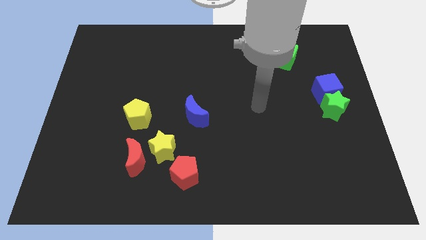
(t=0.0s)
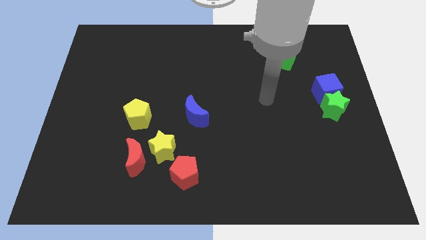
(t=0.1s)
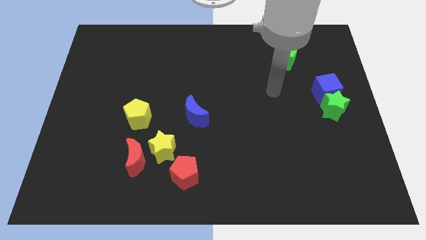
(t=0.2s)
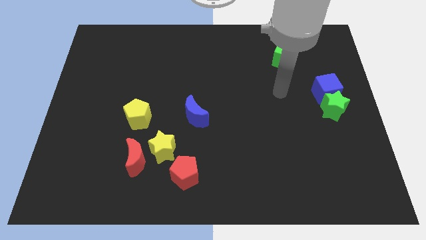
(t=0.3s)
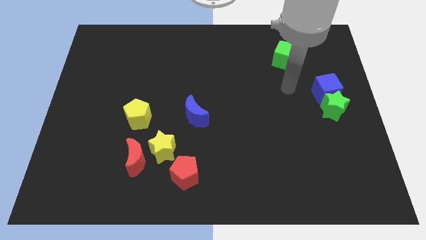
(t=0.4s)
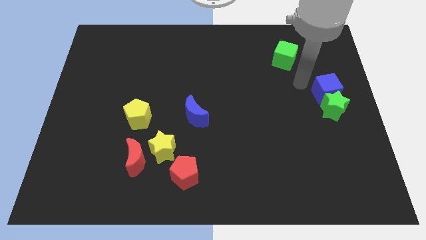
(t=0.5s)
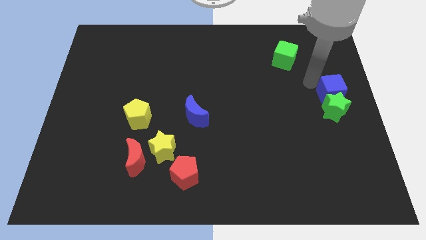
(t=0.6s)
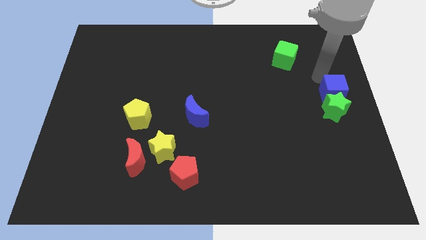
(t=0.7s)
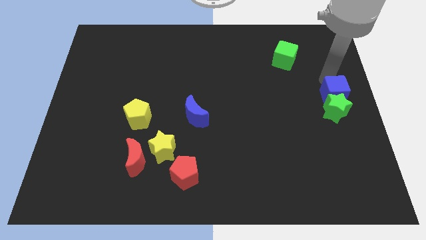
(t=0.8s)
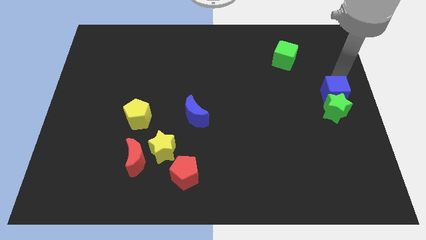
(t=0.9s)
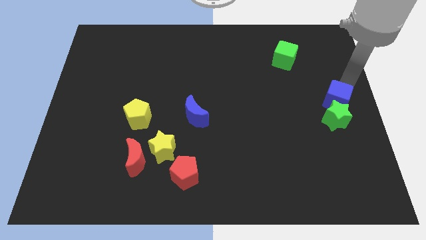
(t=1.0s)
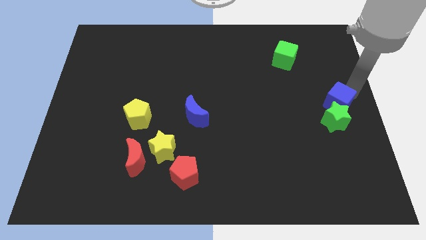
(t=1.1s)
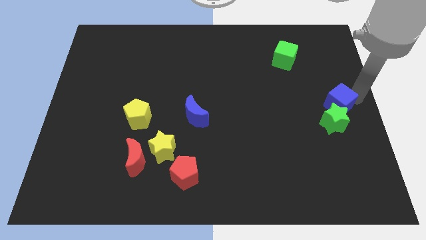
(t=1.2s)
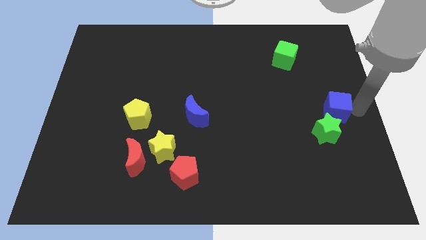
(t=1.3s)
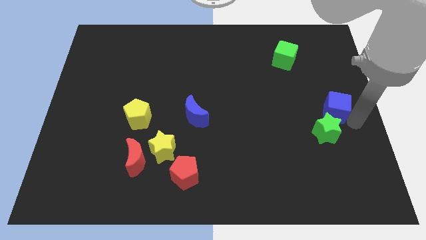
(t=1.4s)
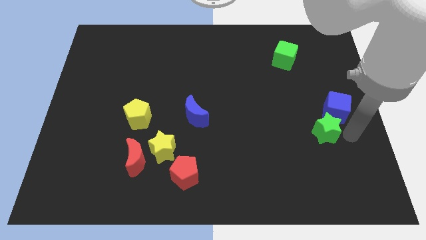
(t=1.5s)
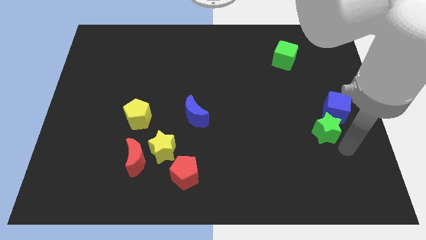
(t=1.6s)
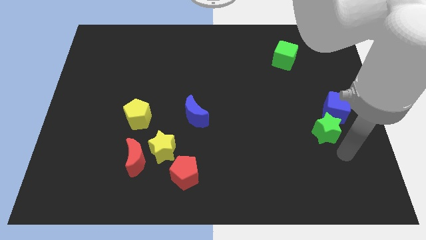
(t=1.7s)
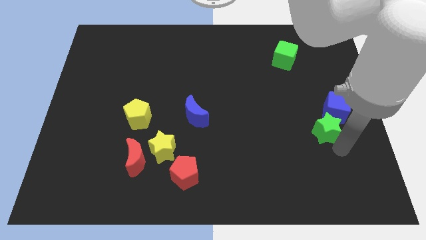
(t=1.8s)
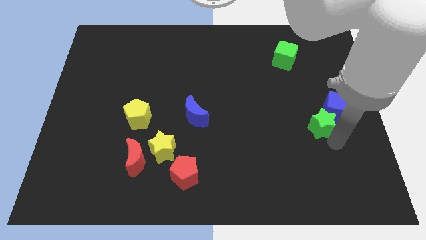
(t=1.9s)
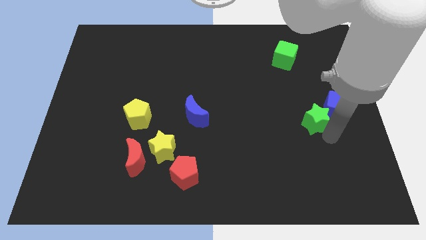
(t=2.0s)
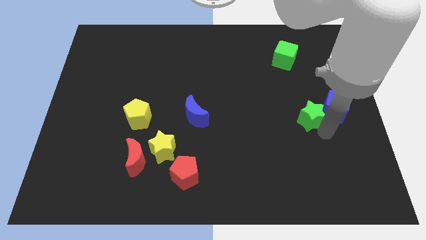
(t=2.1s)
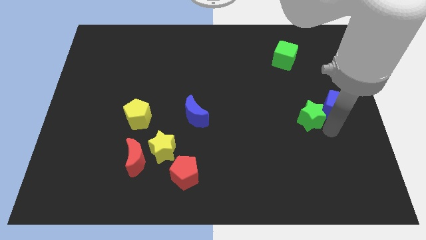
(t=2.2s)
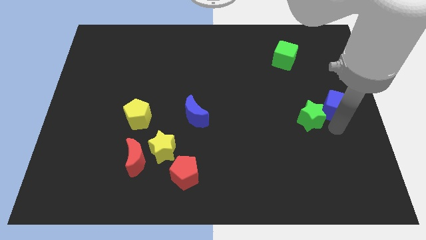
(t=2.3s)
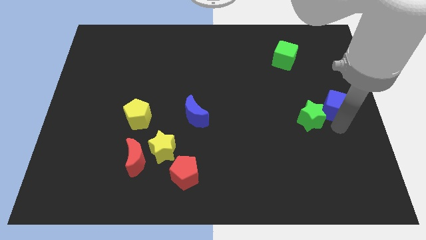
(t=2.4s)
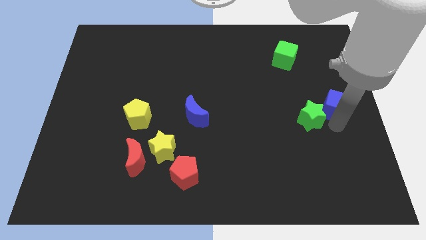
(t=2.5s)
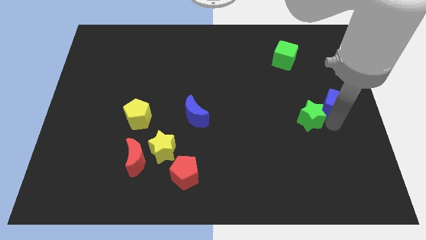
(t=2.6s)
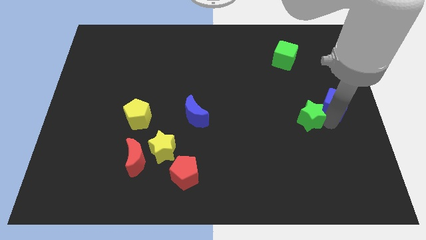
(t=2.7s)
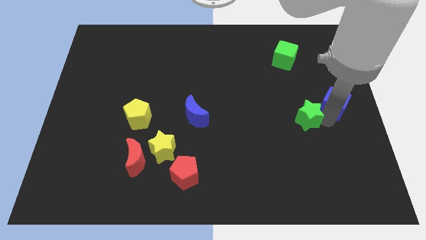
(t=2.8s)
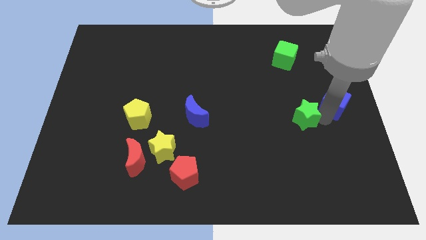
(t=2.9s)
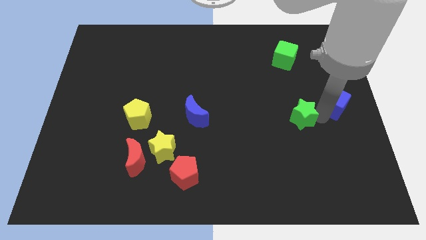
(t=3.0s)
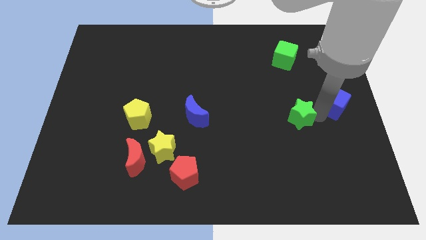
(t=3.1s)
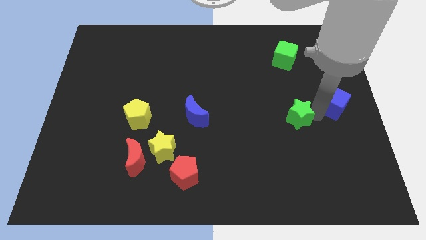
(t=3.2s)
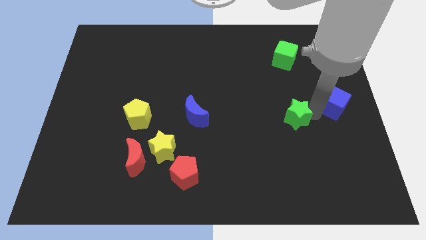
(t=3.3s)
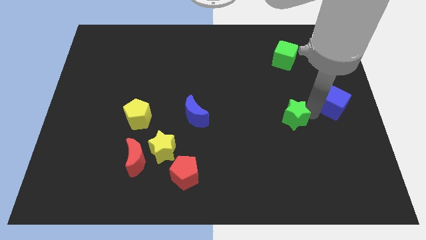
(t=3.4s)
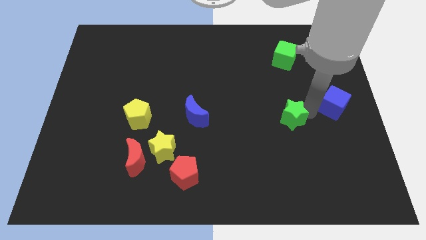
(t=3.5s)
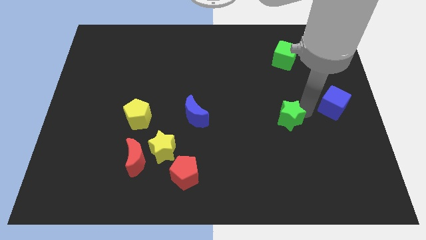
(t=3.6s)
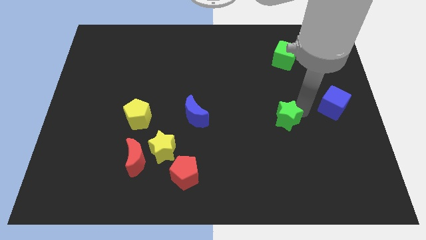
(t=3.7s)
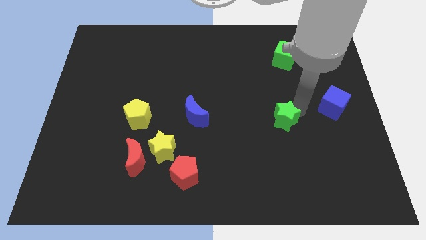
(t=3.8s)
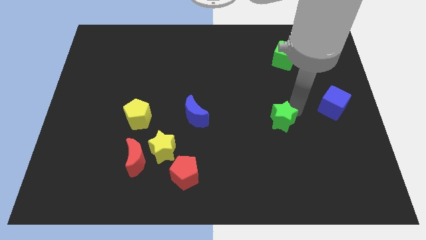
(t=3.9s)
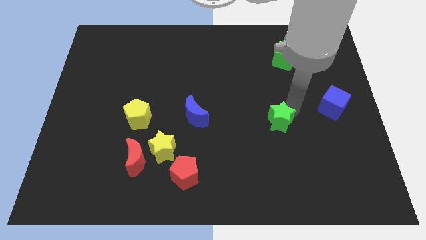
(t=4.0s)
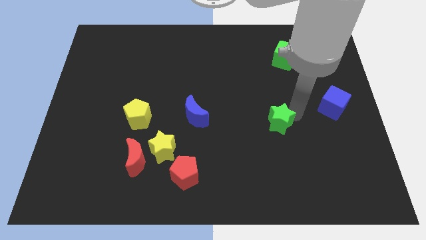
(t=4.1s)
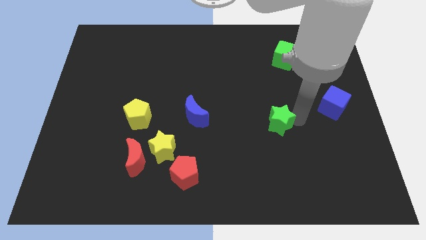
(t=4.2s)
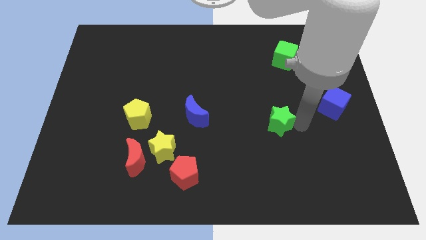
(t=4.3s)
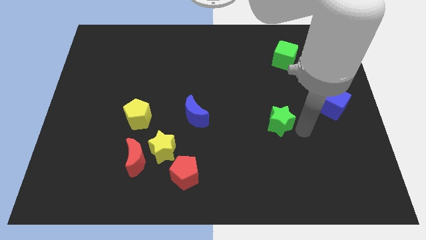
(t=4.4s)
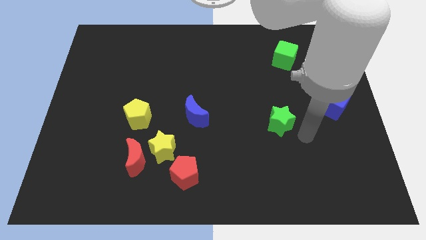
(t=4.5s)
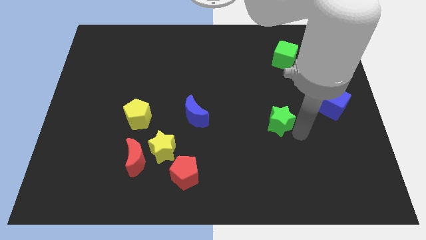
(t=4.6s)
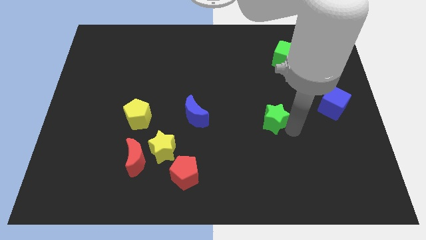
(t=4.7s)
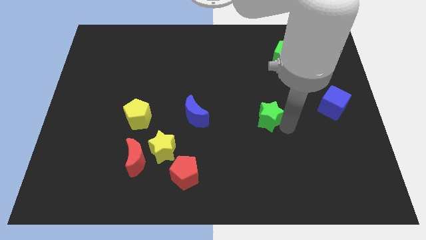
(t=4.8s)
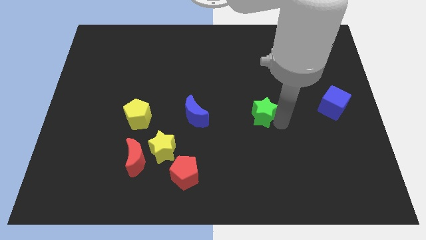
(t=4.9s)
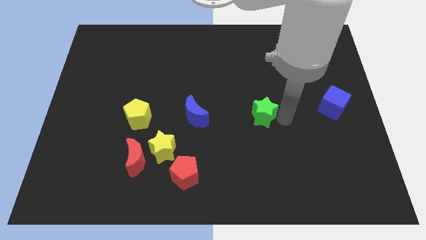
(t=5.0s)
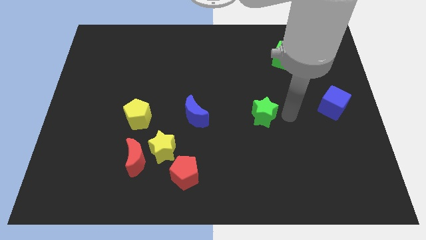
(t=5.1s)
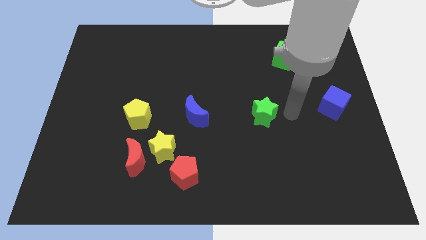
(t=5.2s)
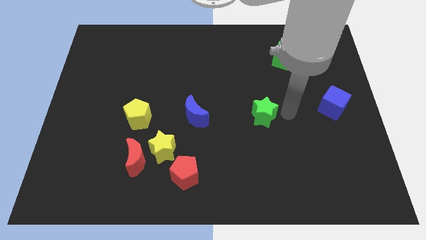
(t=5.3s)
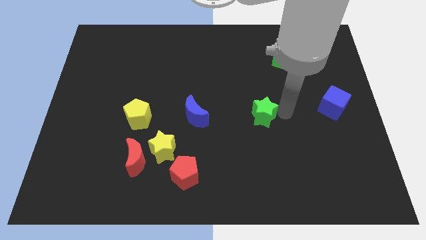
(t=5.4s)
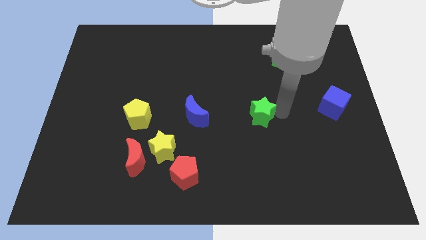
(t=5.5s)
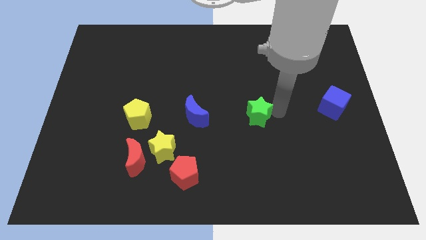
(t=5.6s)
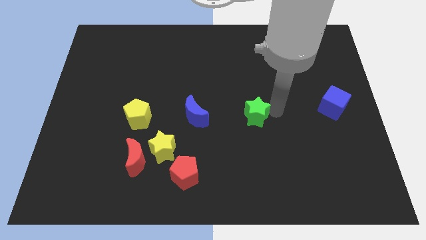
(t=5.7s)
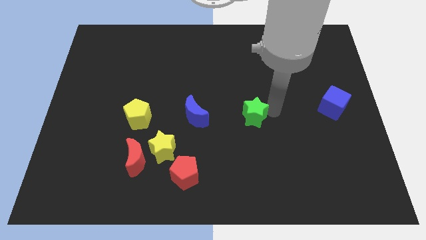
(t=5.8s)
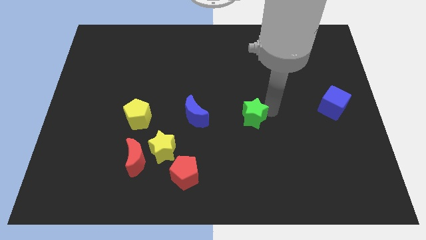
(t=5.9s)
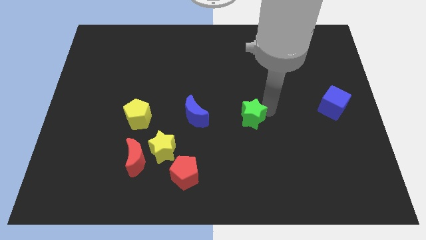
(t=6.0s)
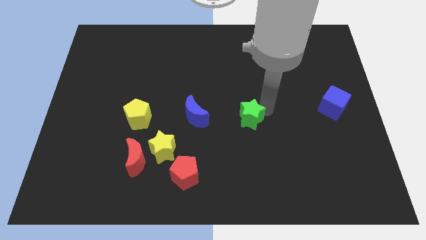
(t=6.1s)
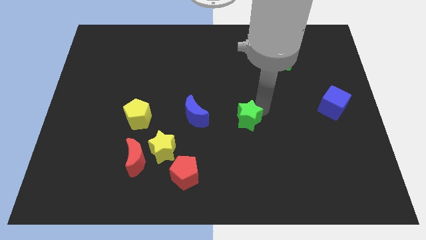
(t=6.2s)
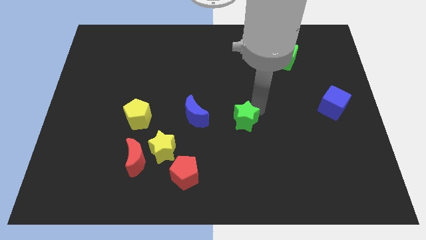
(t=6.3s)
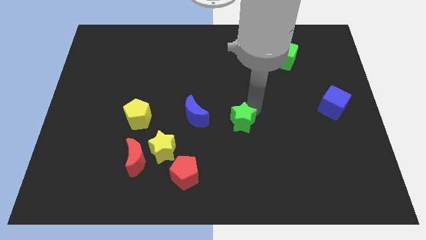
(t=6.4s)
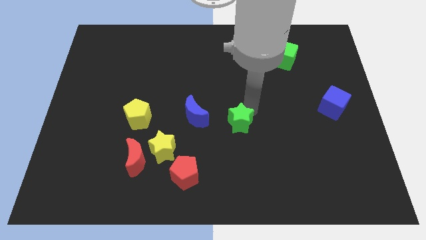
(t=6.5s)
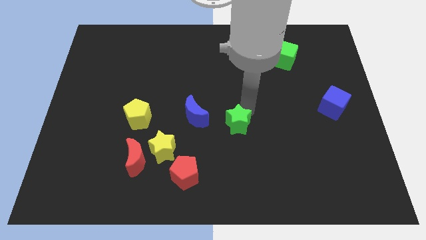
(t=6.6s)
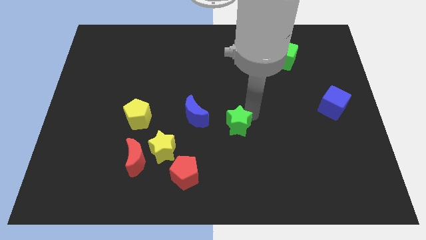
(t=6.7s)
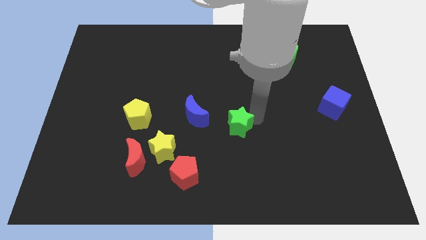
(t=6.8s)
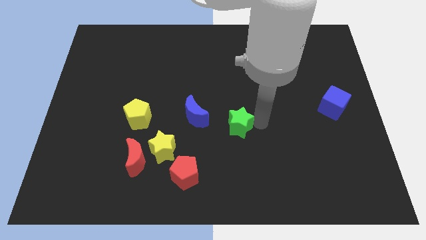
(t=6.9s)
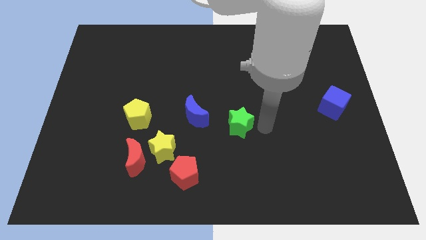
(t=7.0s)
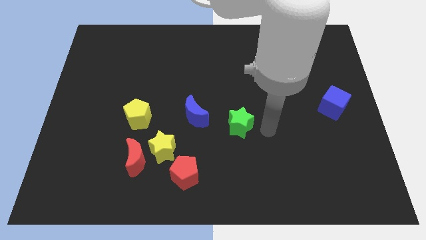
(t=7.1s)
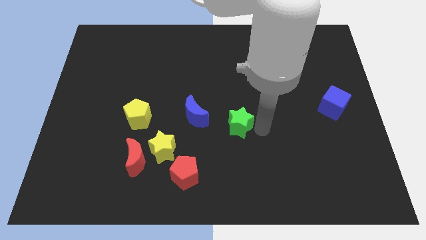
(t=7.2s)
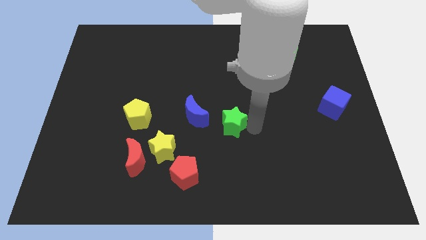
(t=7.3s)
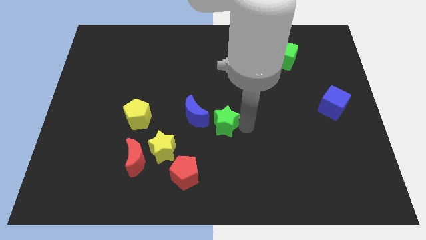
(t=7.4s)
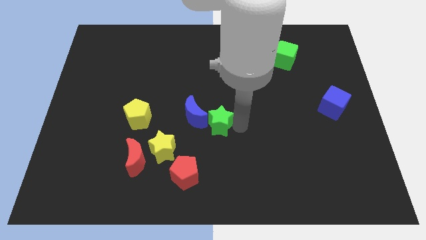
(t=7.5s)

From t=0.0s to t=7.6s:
push the green star next to the blue moon
